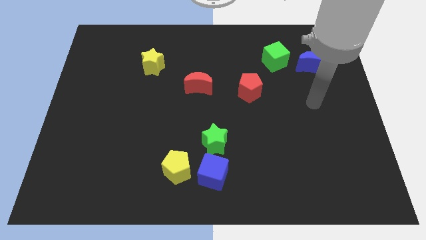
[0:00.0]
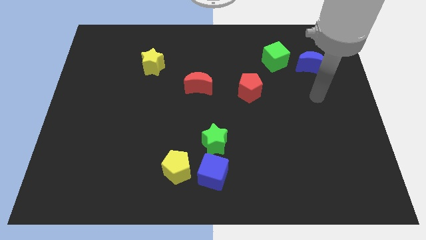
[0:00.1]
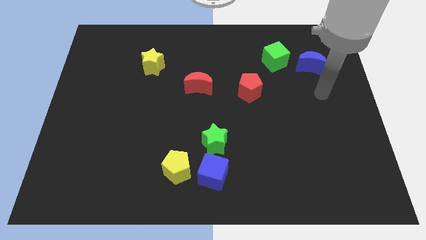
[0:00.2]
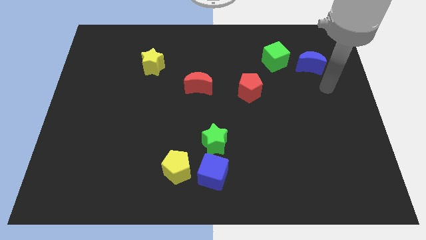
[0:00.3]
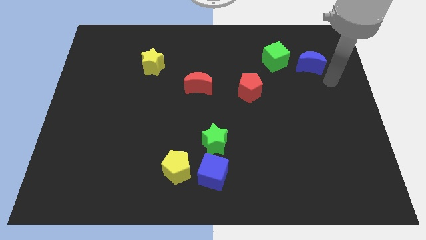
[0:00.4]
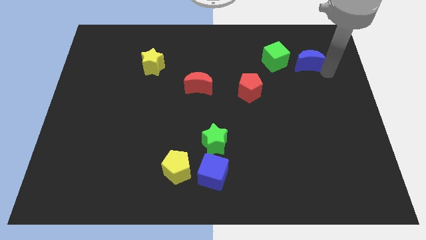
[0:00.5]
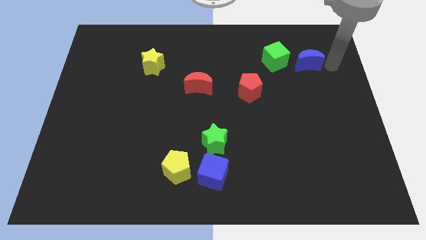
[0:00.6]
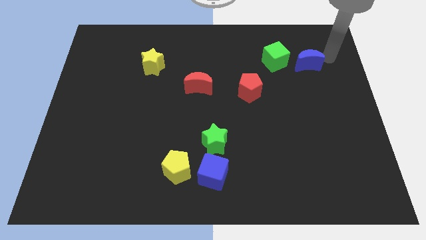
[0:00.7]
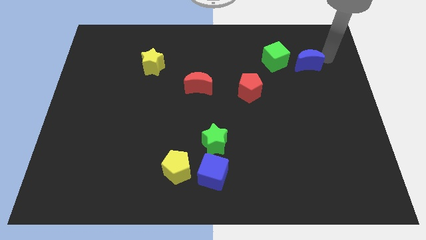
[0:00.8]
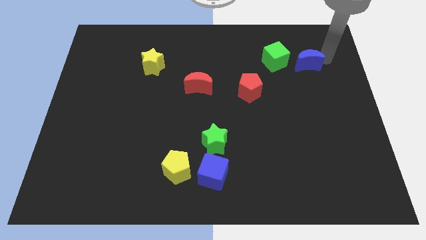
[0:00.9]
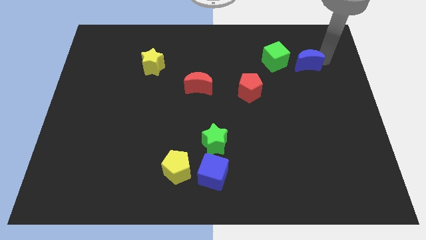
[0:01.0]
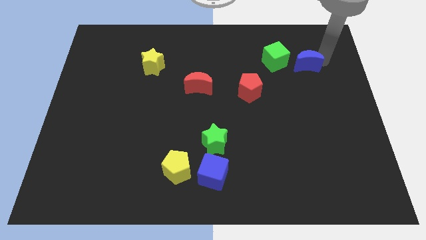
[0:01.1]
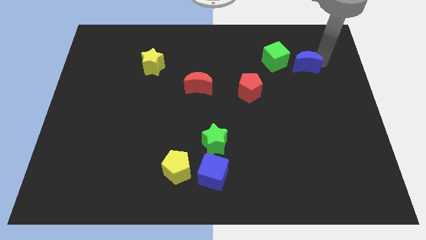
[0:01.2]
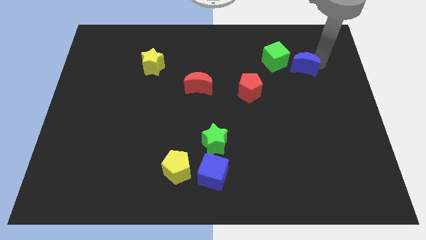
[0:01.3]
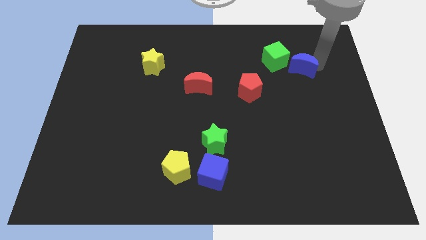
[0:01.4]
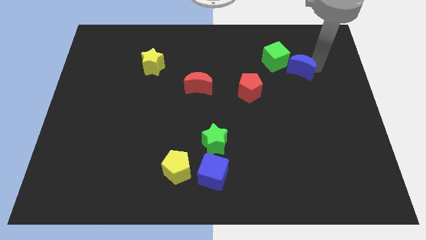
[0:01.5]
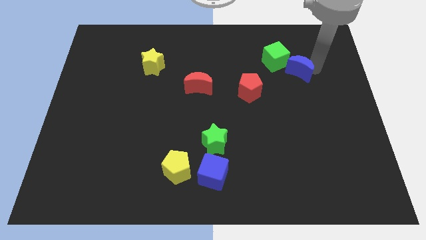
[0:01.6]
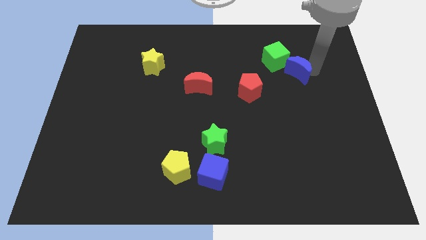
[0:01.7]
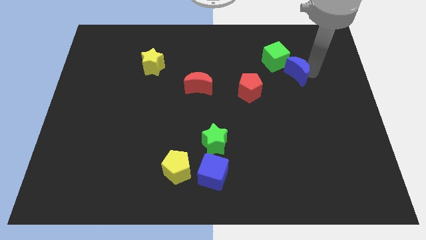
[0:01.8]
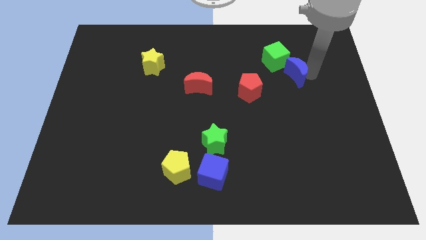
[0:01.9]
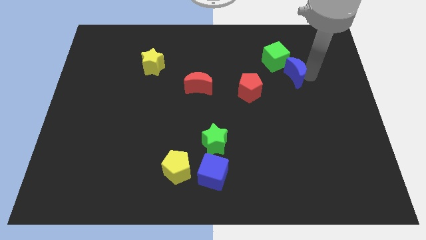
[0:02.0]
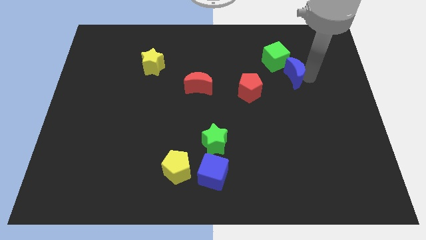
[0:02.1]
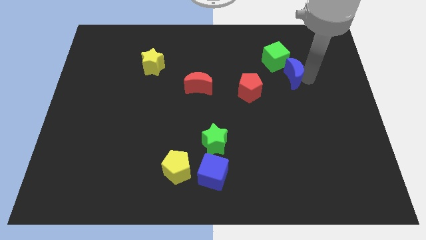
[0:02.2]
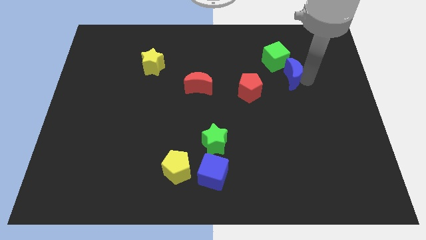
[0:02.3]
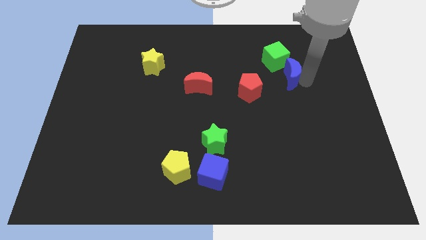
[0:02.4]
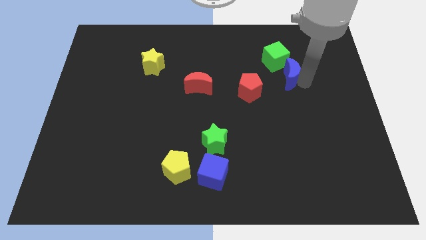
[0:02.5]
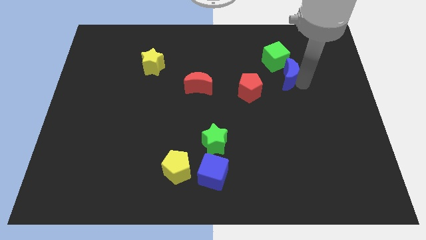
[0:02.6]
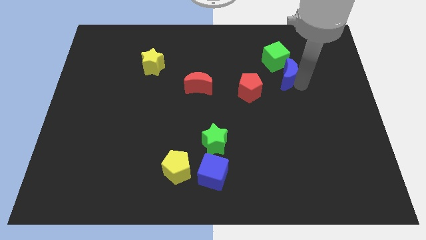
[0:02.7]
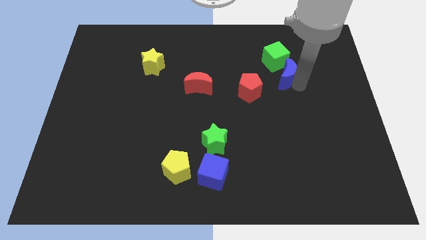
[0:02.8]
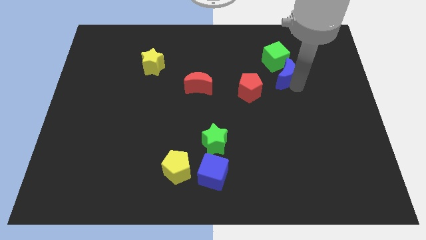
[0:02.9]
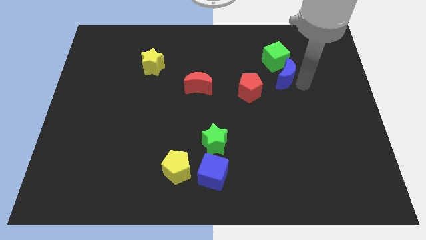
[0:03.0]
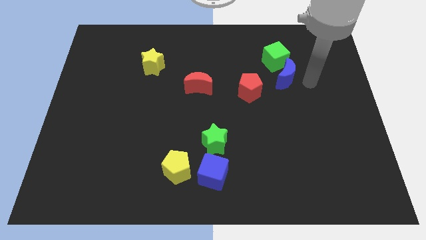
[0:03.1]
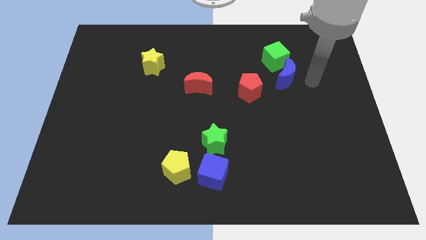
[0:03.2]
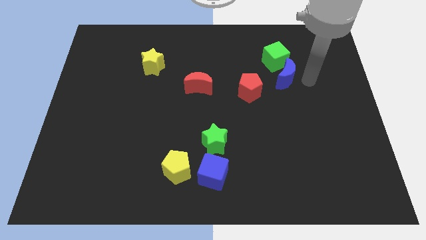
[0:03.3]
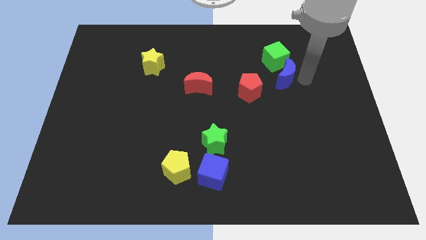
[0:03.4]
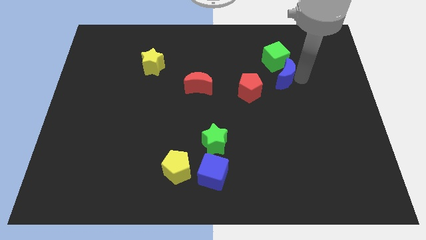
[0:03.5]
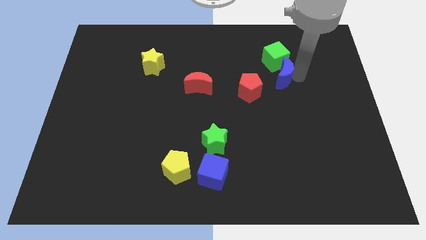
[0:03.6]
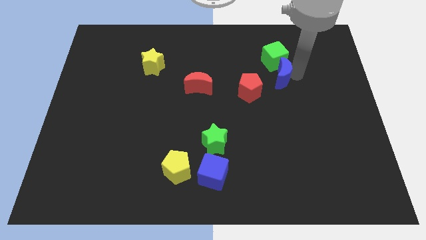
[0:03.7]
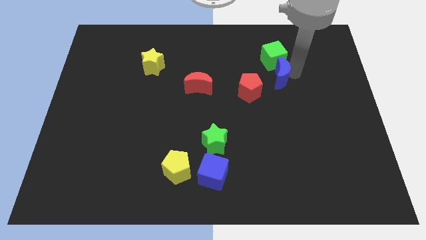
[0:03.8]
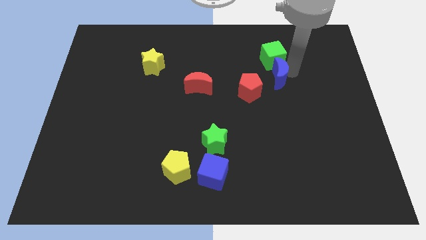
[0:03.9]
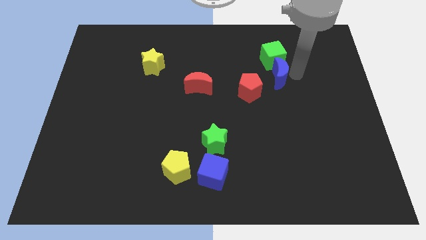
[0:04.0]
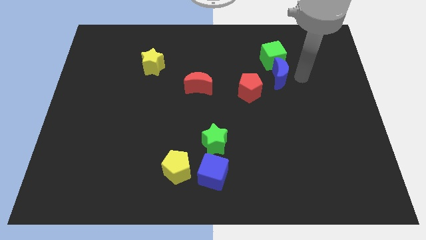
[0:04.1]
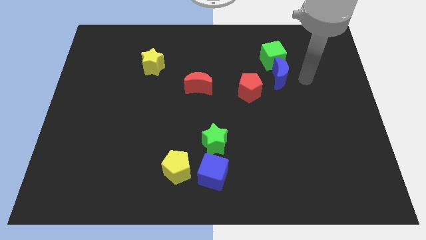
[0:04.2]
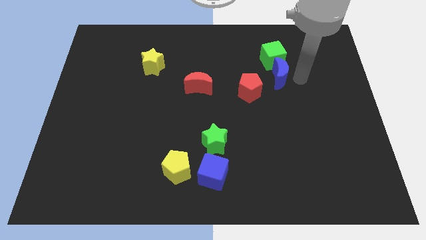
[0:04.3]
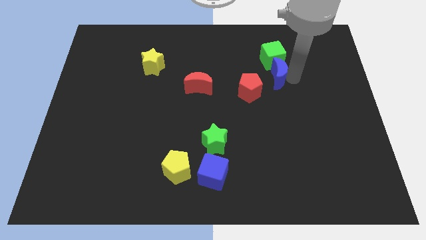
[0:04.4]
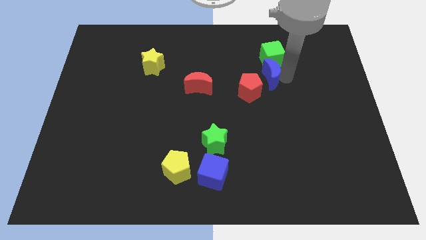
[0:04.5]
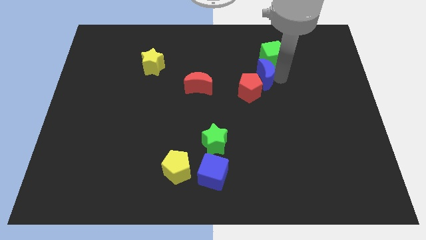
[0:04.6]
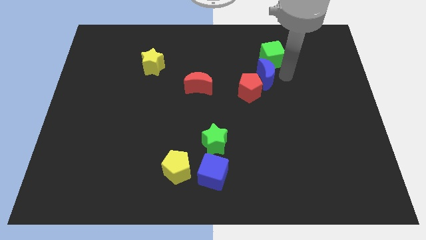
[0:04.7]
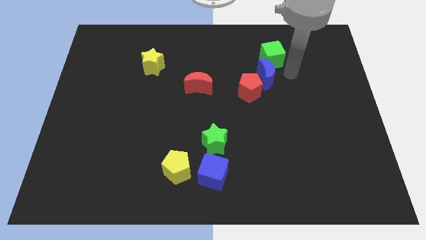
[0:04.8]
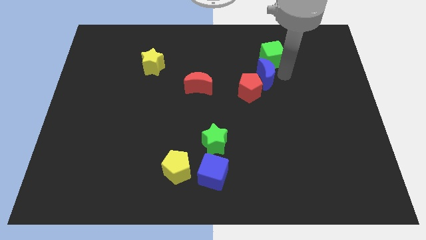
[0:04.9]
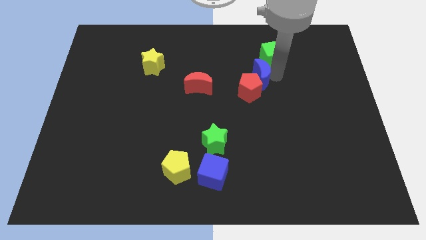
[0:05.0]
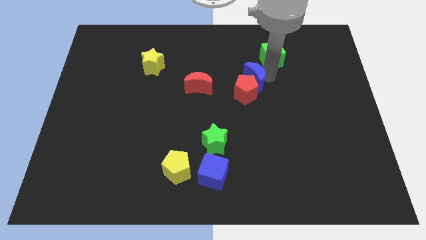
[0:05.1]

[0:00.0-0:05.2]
put the blue moon to the center of the board

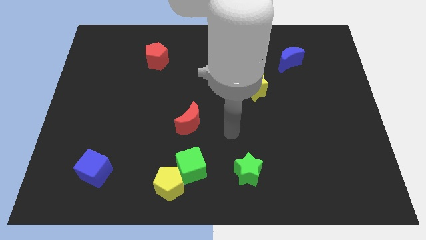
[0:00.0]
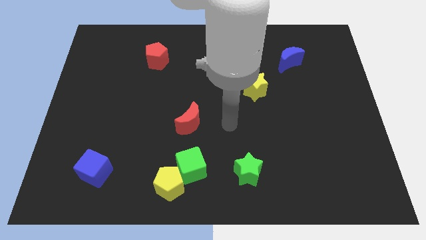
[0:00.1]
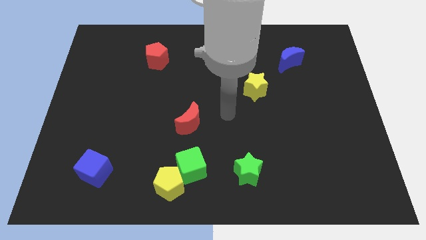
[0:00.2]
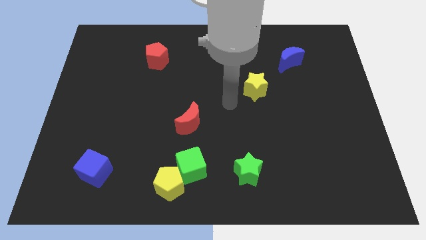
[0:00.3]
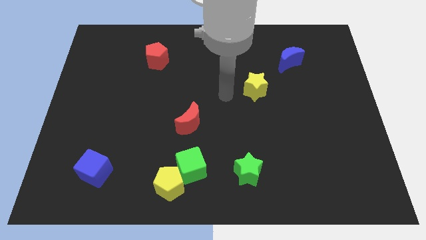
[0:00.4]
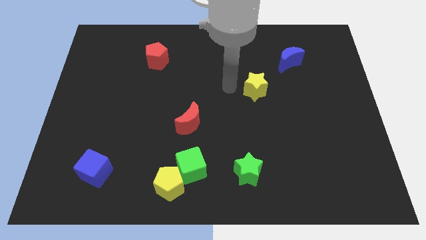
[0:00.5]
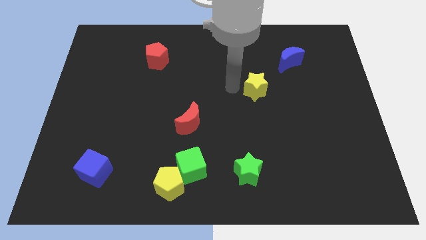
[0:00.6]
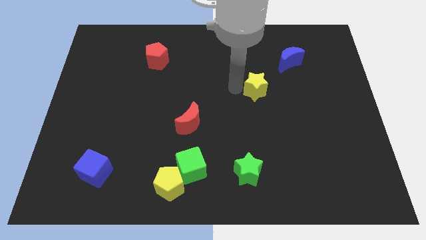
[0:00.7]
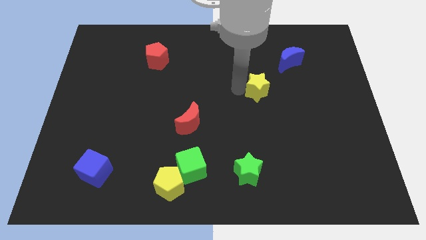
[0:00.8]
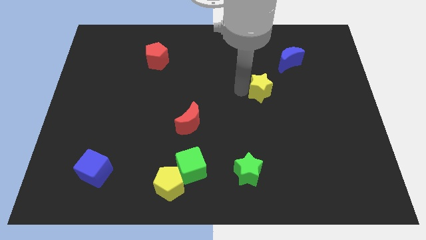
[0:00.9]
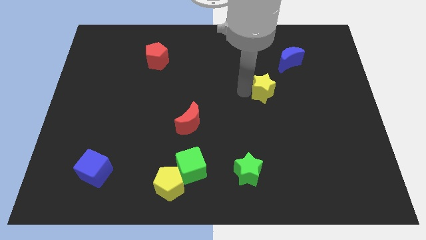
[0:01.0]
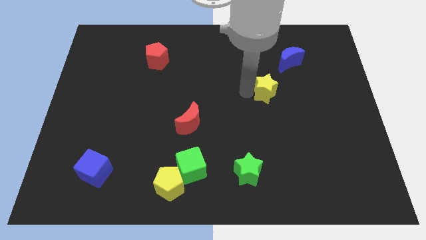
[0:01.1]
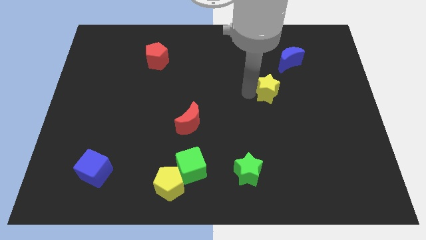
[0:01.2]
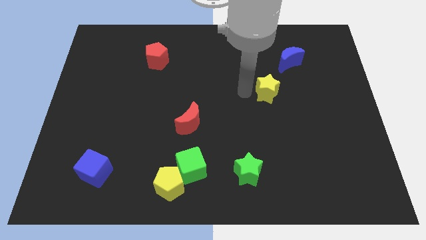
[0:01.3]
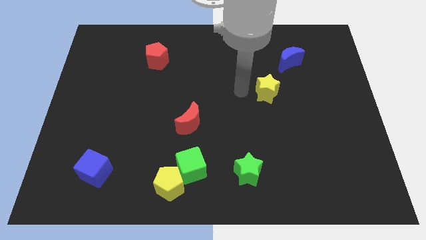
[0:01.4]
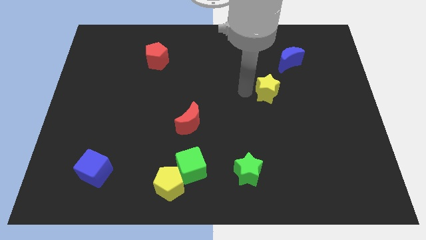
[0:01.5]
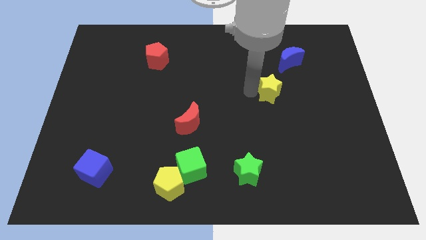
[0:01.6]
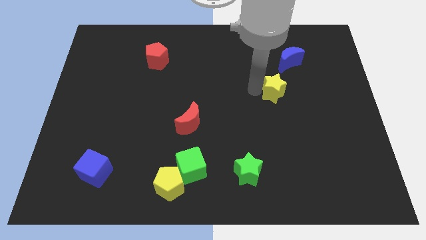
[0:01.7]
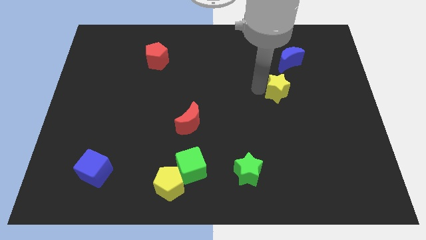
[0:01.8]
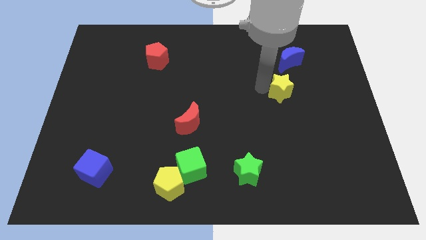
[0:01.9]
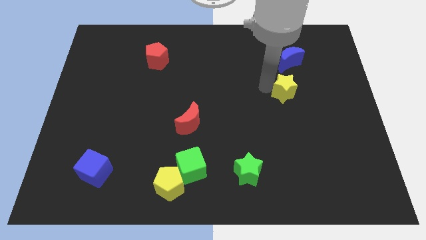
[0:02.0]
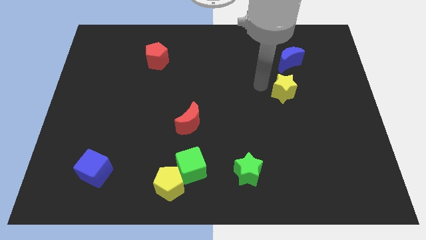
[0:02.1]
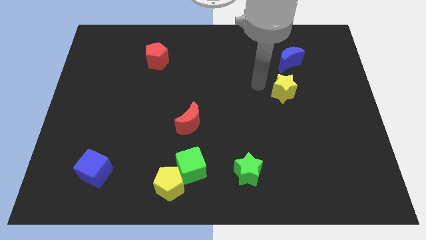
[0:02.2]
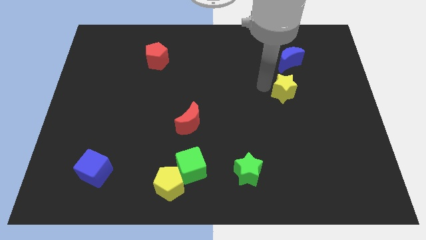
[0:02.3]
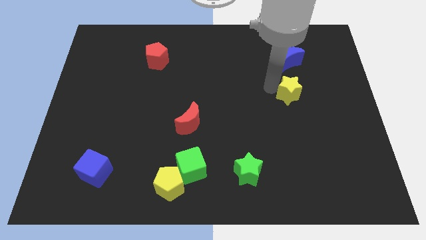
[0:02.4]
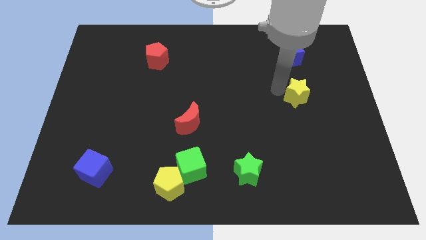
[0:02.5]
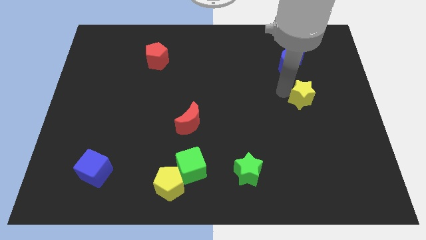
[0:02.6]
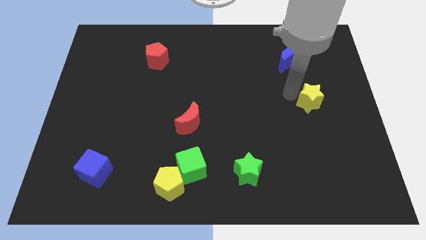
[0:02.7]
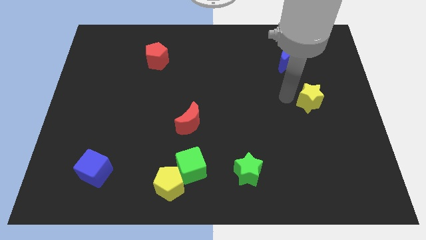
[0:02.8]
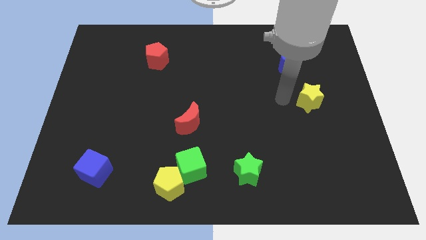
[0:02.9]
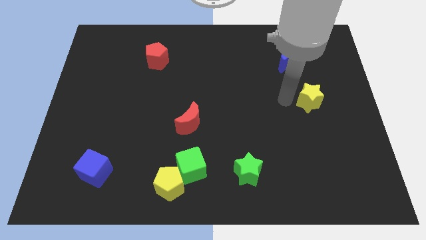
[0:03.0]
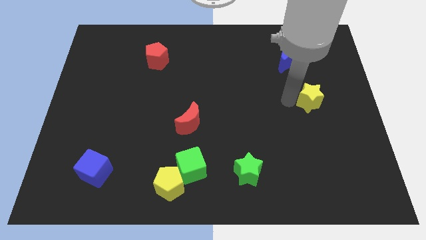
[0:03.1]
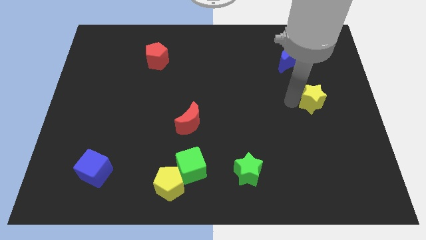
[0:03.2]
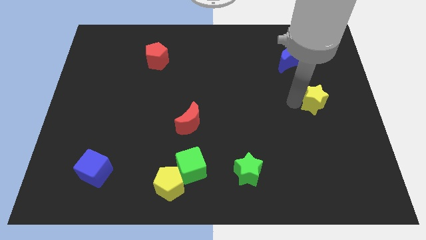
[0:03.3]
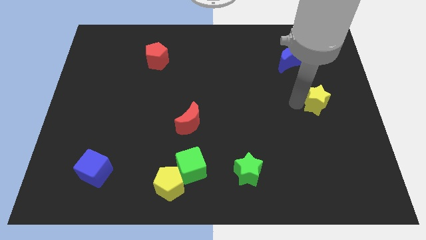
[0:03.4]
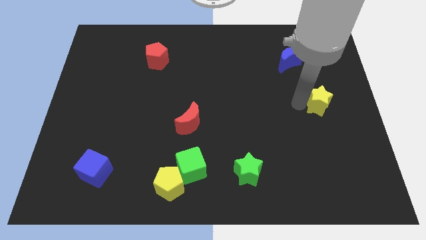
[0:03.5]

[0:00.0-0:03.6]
push the yellow star to the center right
